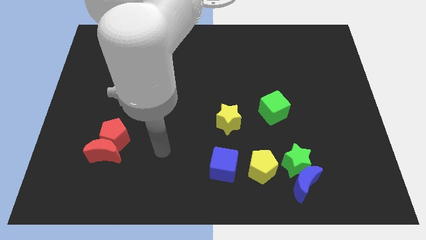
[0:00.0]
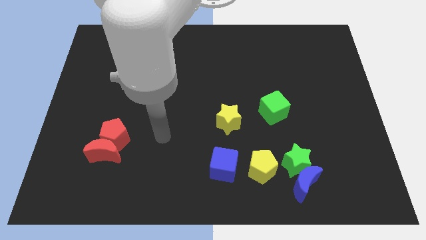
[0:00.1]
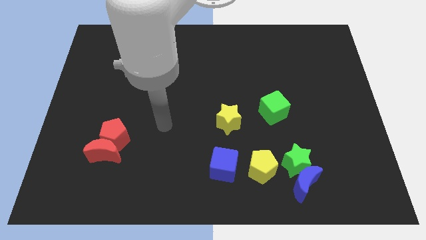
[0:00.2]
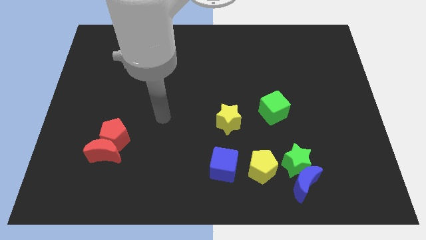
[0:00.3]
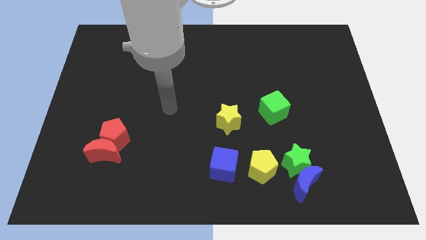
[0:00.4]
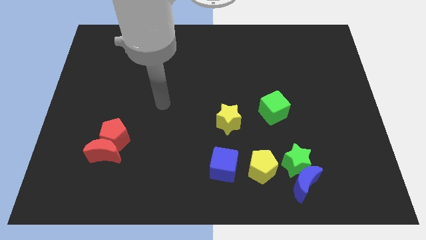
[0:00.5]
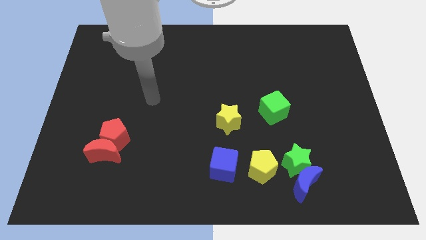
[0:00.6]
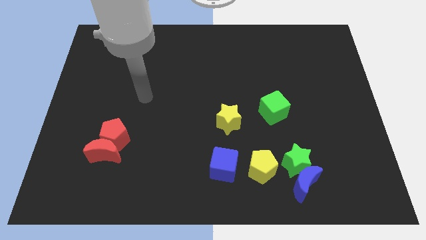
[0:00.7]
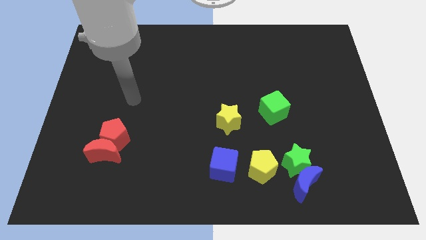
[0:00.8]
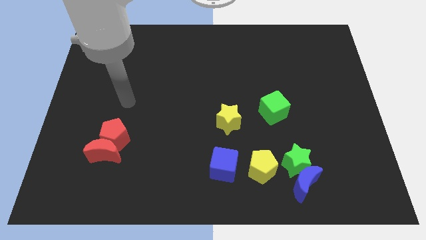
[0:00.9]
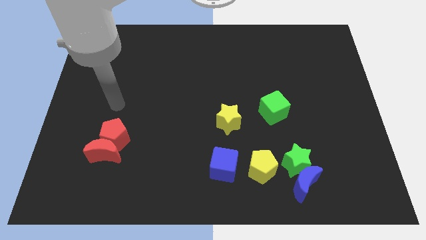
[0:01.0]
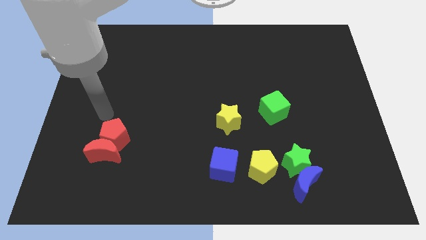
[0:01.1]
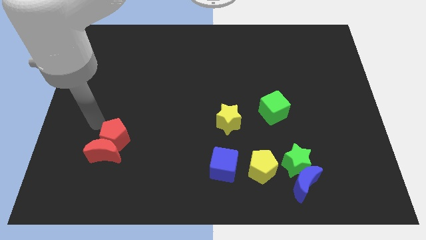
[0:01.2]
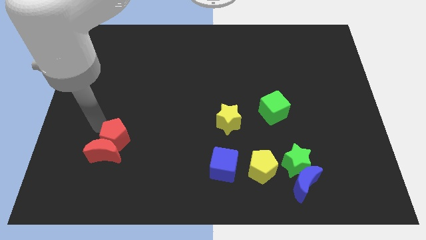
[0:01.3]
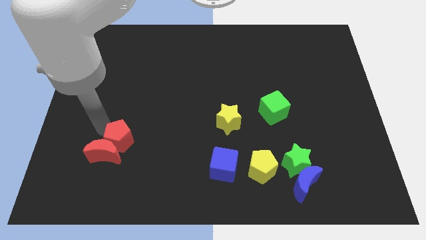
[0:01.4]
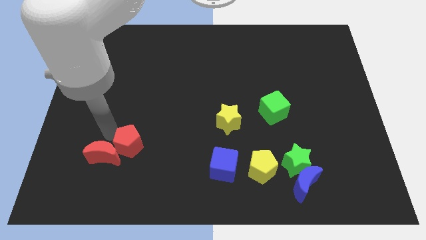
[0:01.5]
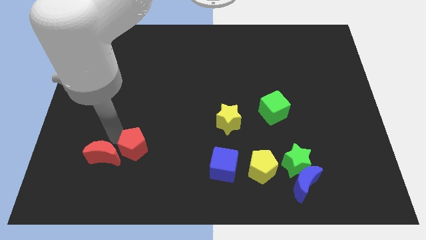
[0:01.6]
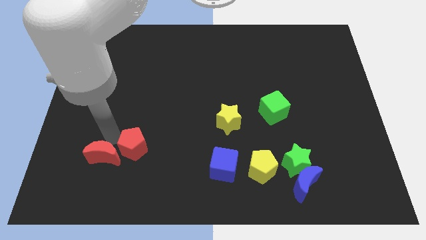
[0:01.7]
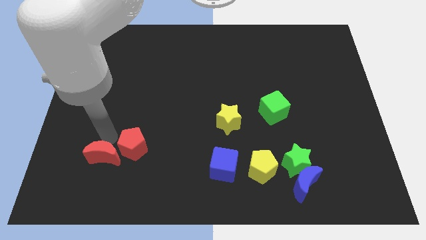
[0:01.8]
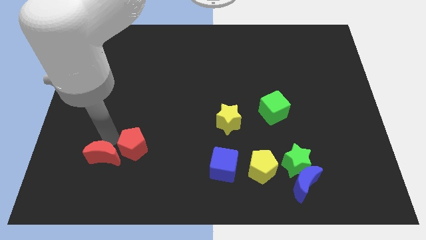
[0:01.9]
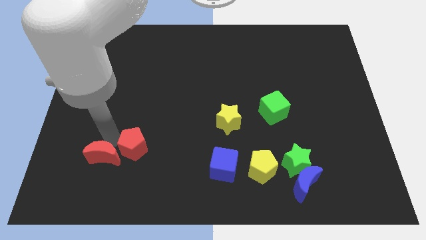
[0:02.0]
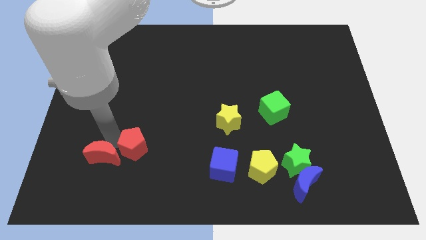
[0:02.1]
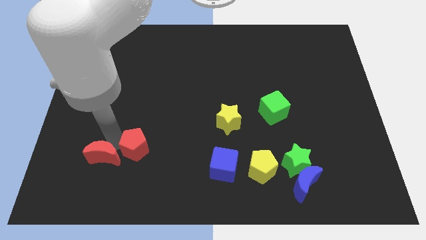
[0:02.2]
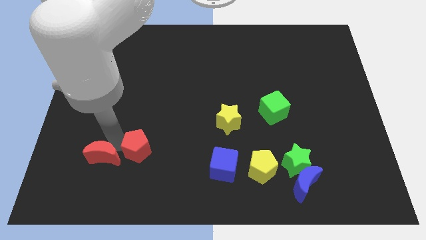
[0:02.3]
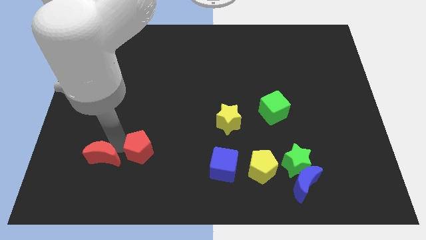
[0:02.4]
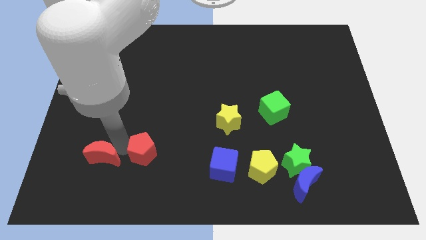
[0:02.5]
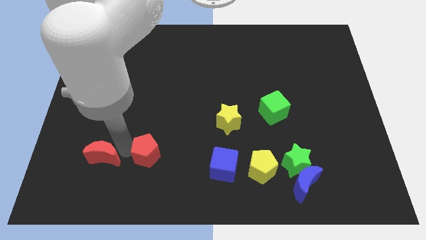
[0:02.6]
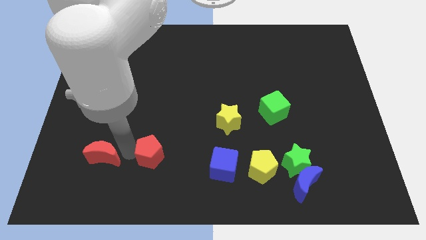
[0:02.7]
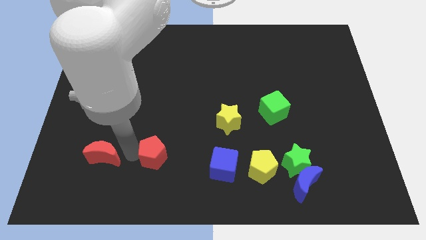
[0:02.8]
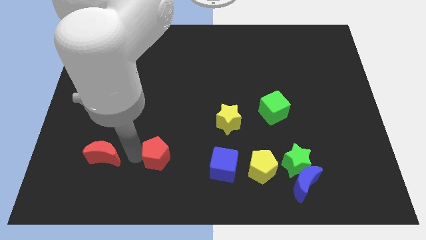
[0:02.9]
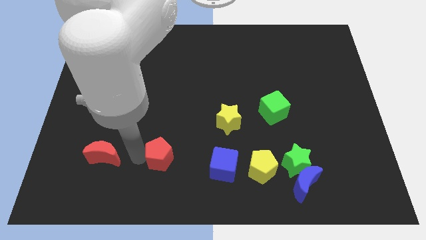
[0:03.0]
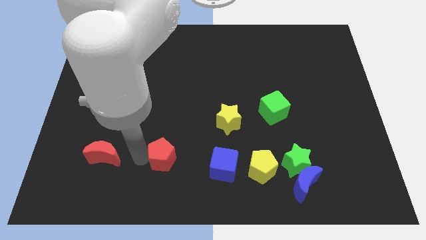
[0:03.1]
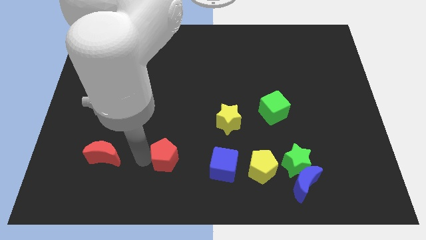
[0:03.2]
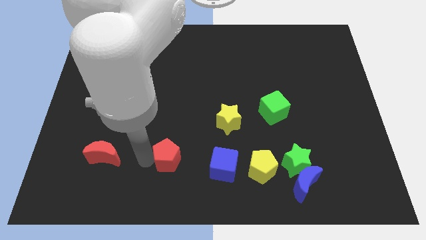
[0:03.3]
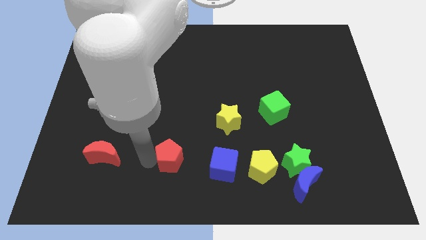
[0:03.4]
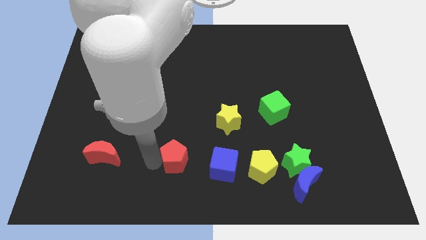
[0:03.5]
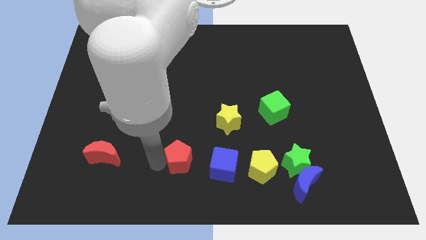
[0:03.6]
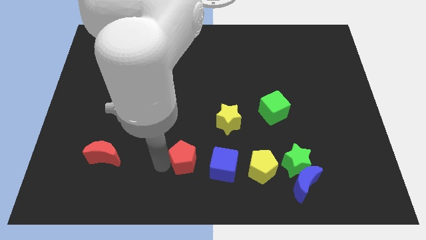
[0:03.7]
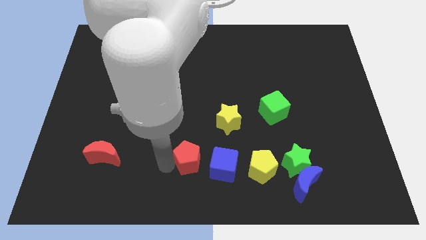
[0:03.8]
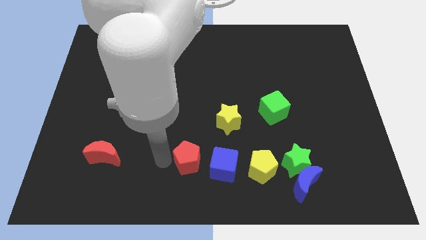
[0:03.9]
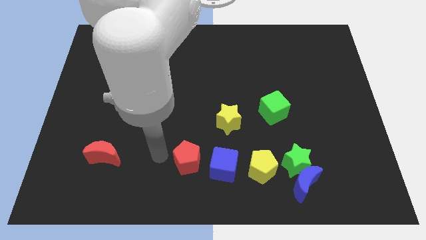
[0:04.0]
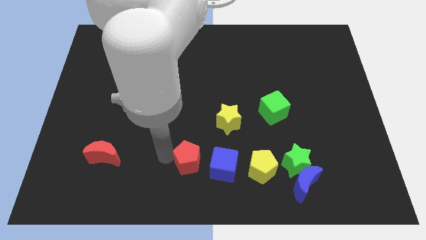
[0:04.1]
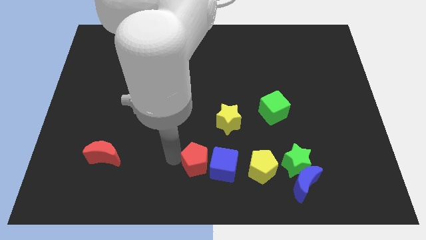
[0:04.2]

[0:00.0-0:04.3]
put the red pentagon to the blue cube

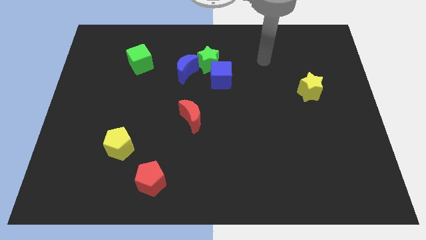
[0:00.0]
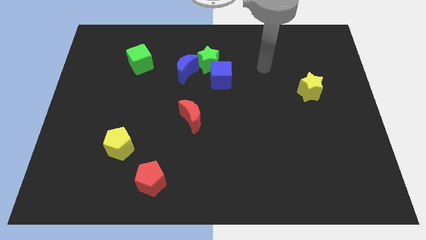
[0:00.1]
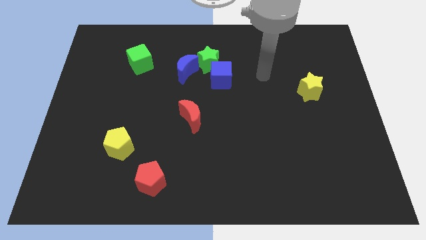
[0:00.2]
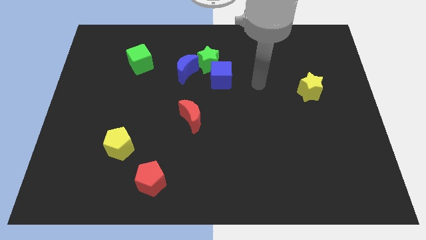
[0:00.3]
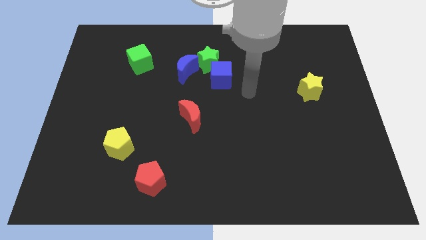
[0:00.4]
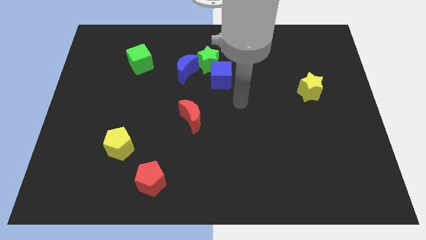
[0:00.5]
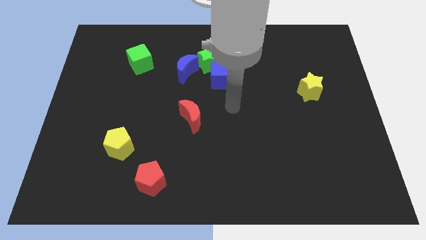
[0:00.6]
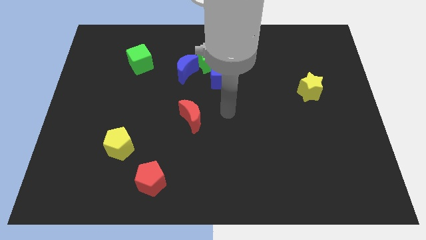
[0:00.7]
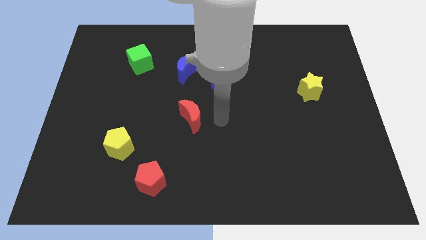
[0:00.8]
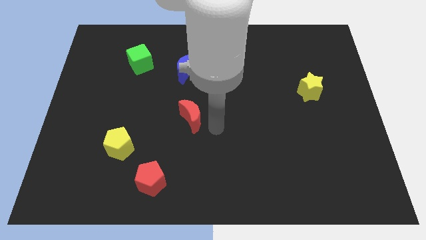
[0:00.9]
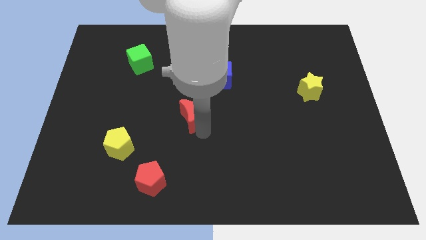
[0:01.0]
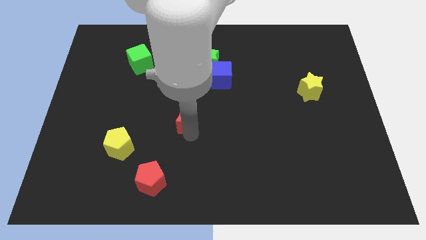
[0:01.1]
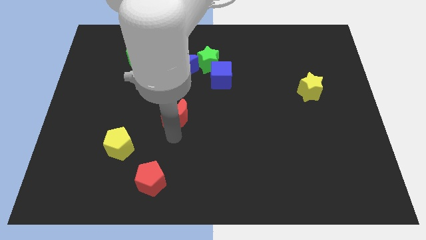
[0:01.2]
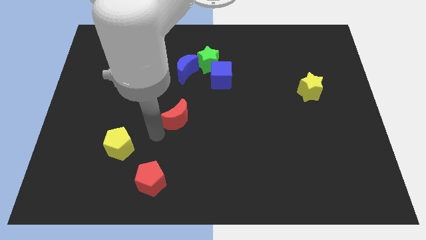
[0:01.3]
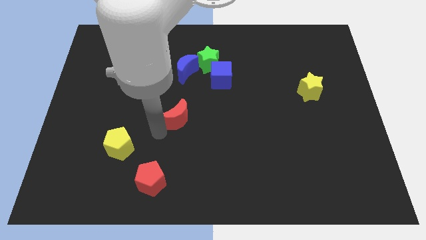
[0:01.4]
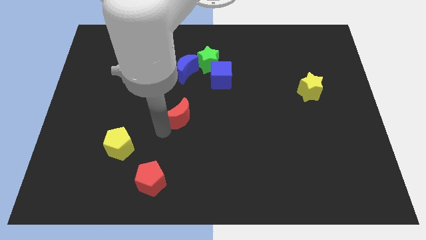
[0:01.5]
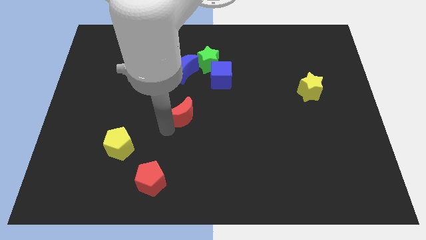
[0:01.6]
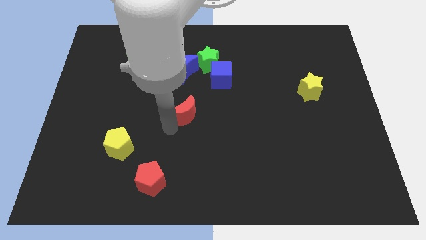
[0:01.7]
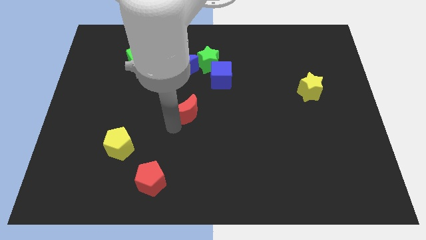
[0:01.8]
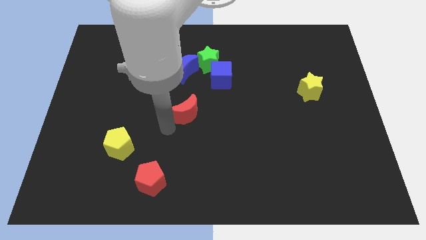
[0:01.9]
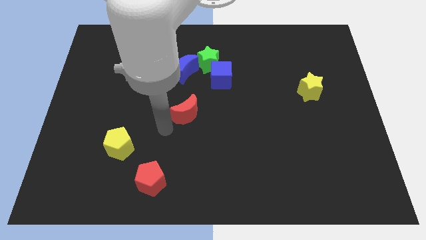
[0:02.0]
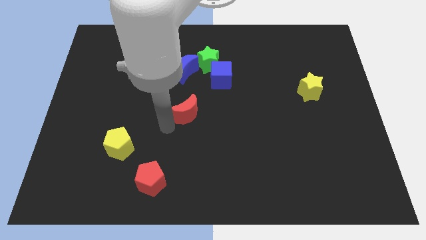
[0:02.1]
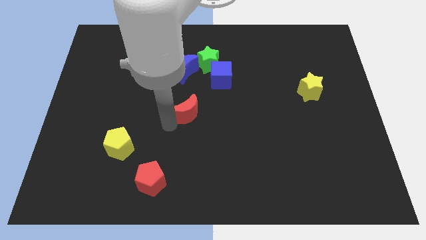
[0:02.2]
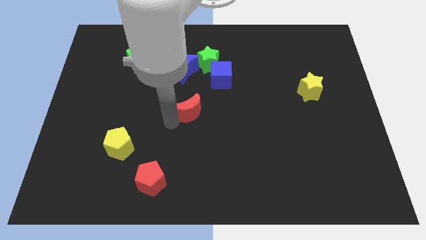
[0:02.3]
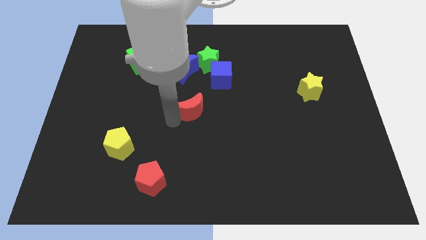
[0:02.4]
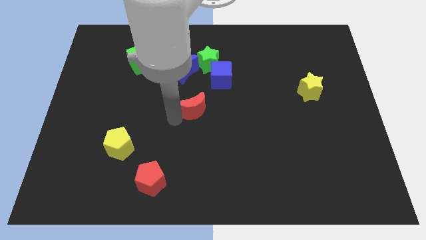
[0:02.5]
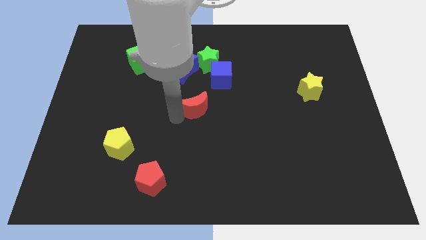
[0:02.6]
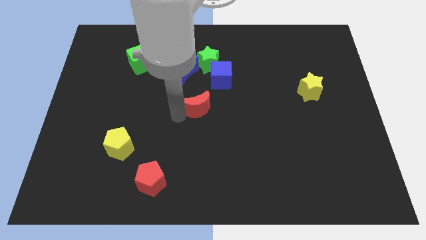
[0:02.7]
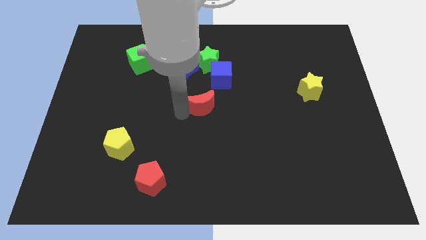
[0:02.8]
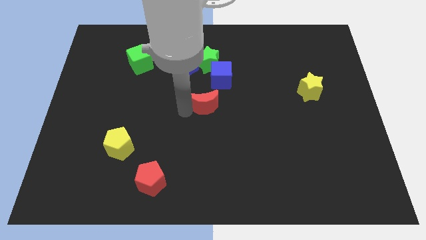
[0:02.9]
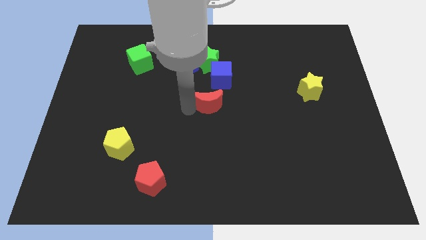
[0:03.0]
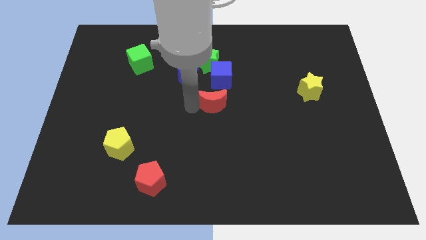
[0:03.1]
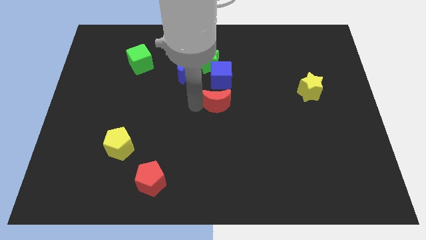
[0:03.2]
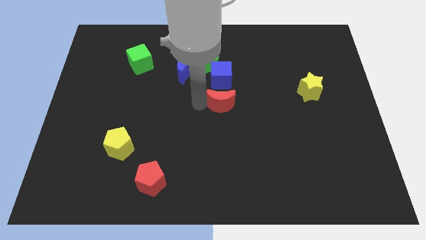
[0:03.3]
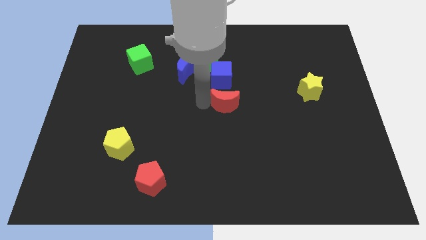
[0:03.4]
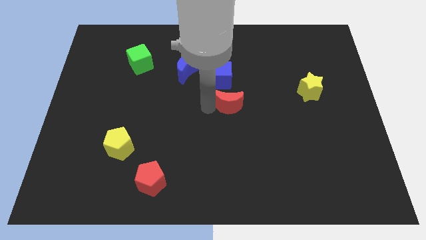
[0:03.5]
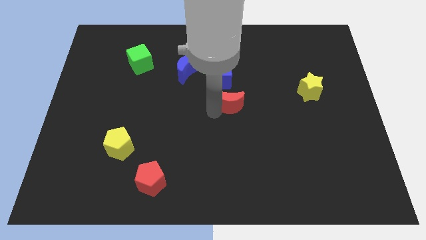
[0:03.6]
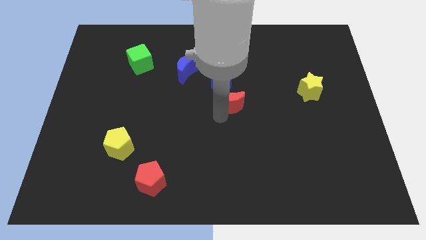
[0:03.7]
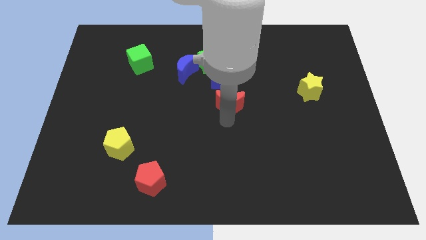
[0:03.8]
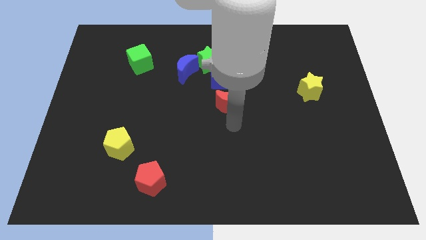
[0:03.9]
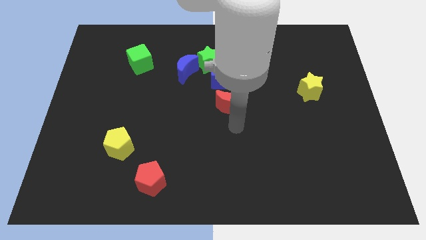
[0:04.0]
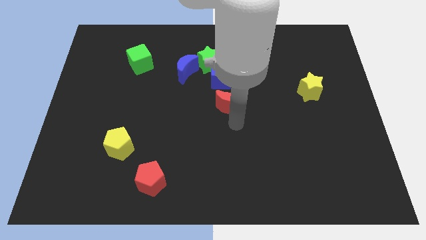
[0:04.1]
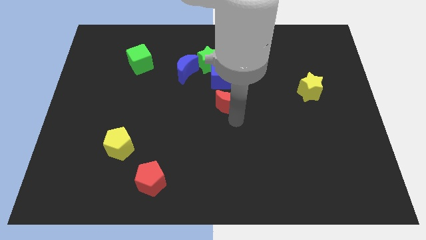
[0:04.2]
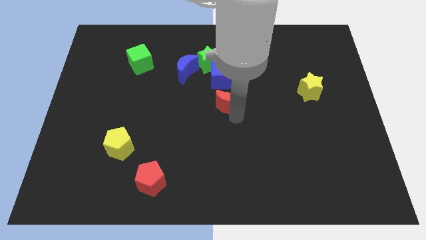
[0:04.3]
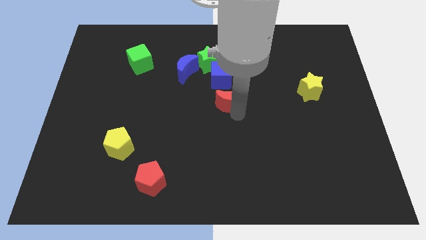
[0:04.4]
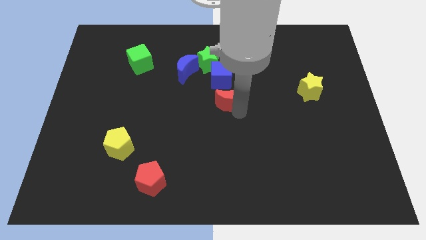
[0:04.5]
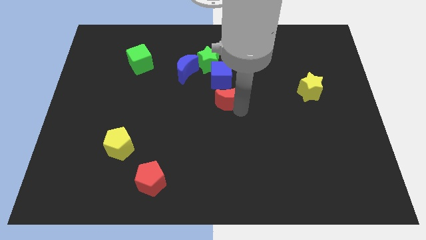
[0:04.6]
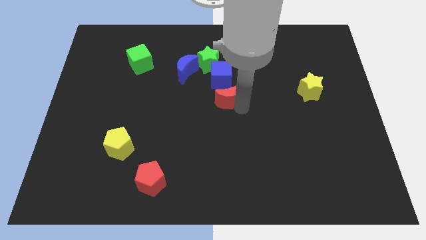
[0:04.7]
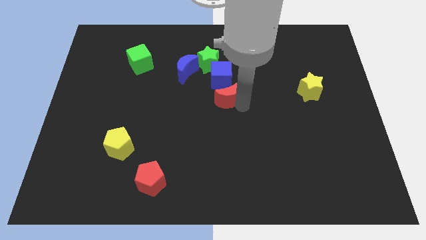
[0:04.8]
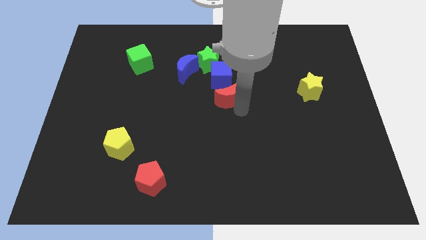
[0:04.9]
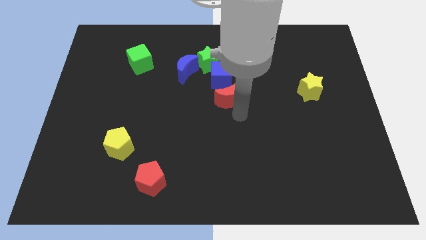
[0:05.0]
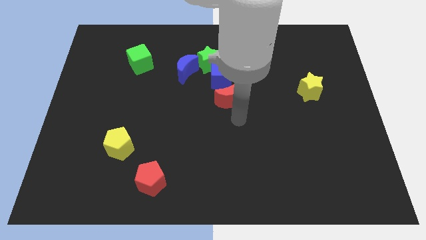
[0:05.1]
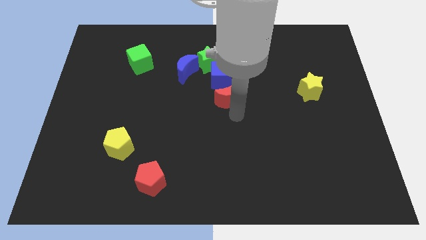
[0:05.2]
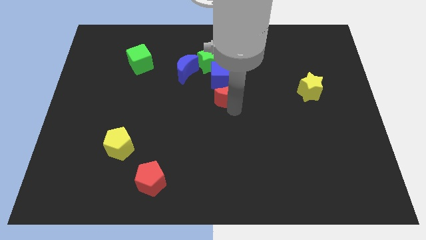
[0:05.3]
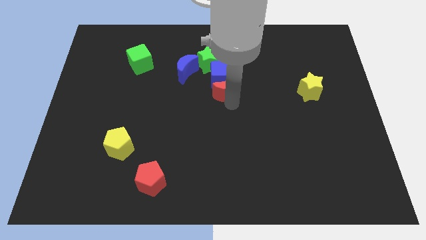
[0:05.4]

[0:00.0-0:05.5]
slide the red moon towards the blue cube
